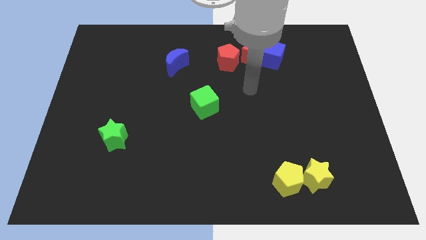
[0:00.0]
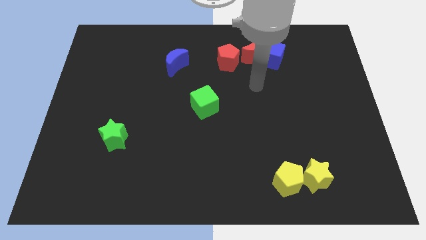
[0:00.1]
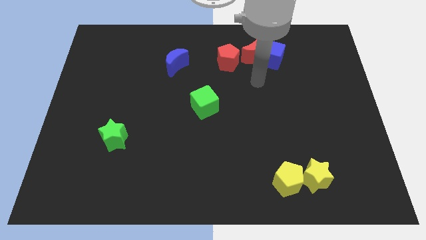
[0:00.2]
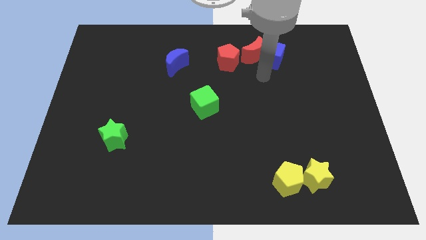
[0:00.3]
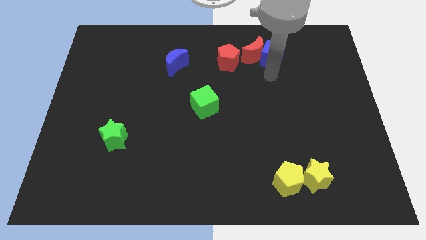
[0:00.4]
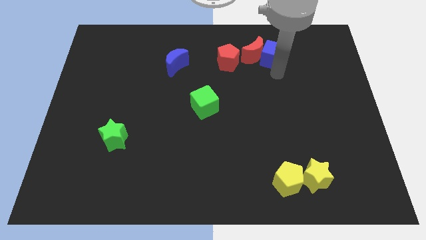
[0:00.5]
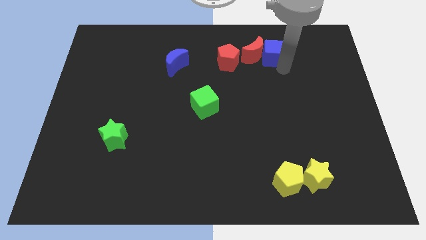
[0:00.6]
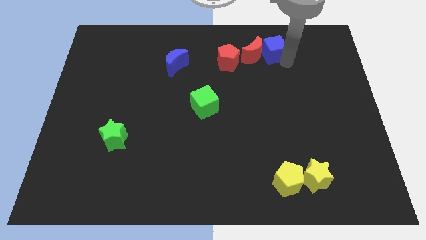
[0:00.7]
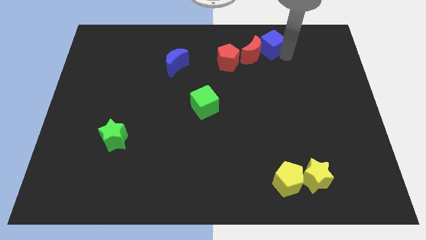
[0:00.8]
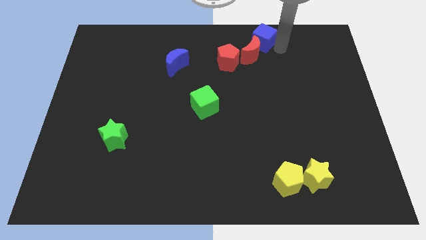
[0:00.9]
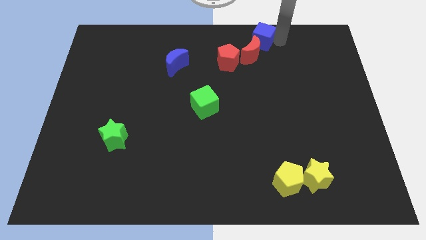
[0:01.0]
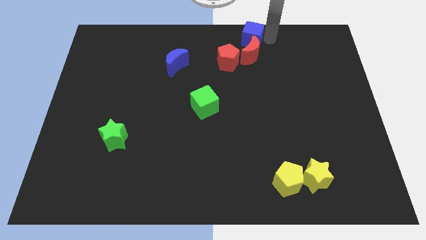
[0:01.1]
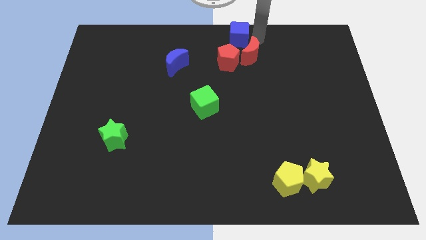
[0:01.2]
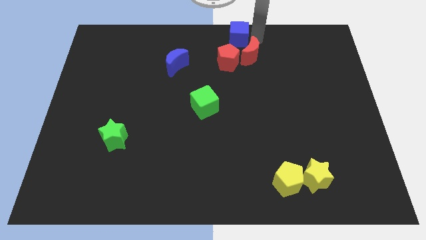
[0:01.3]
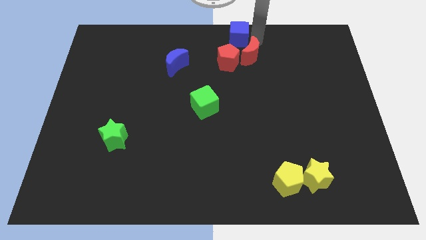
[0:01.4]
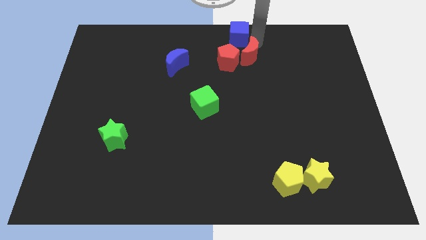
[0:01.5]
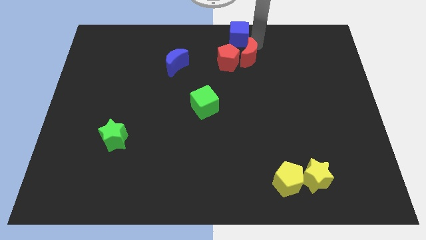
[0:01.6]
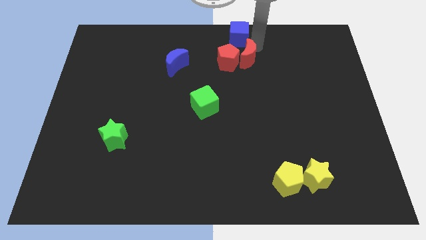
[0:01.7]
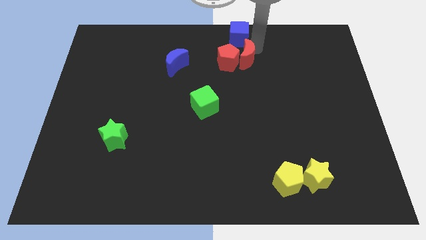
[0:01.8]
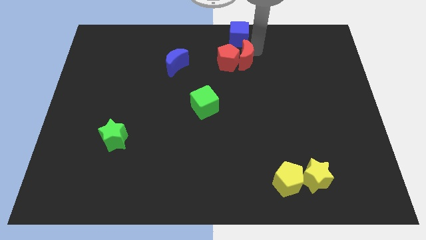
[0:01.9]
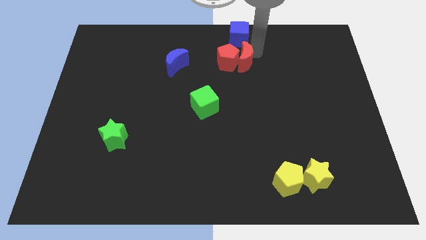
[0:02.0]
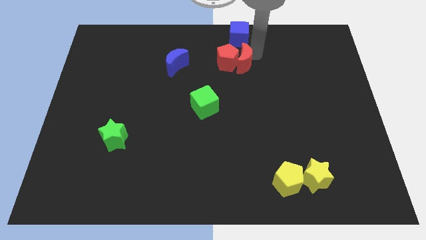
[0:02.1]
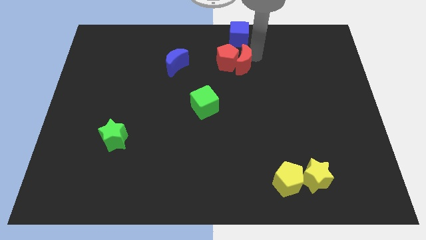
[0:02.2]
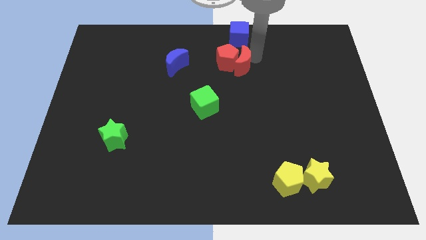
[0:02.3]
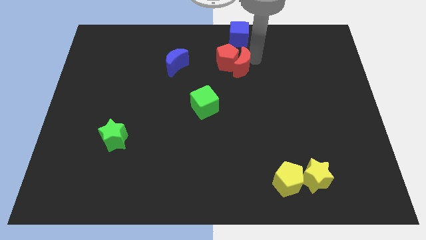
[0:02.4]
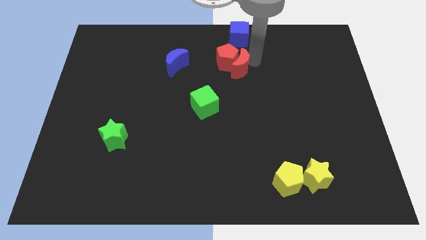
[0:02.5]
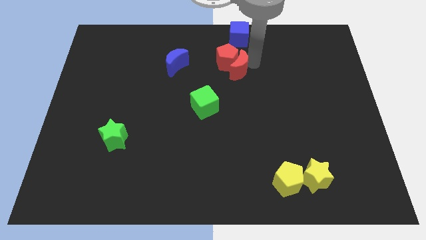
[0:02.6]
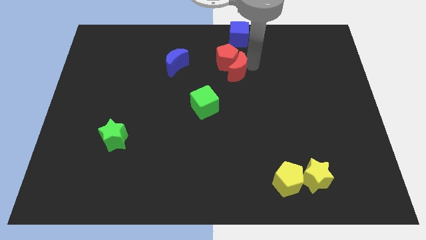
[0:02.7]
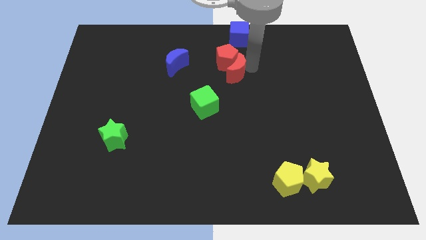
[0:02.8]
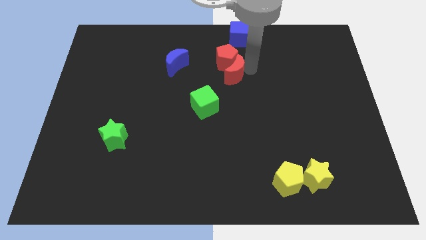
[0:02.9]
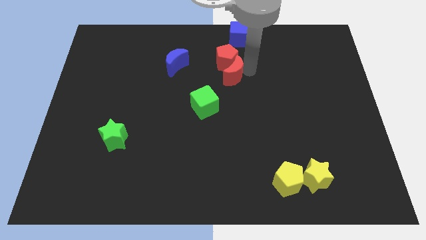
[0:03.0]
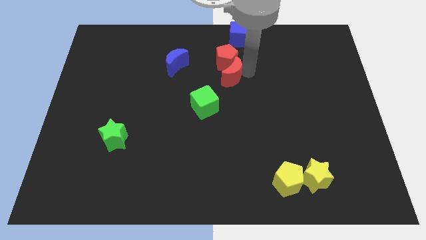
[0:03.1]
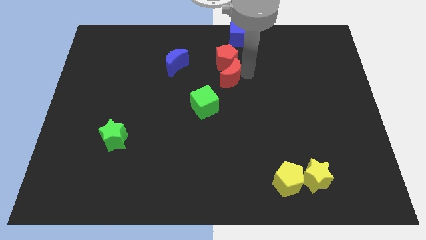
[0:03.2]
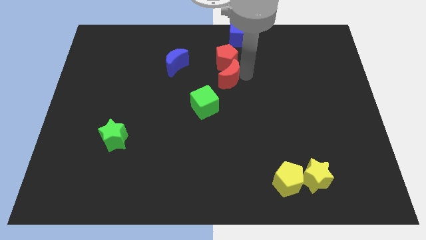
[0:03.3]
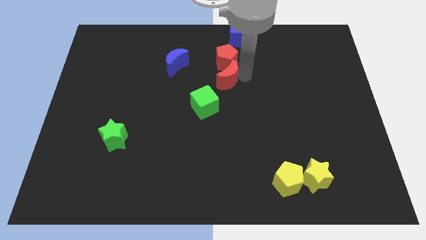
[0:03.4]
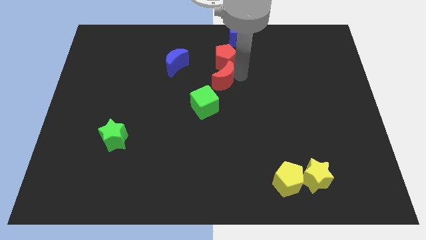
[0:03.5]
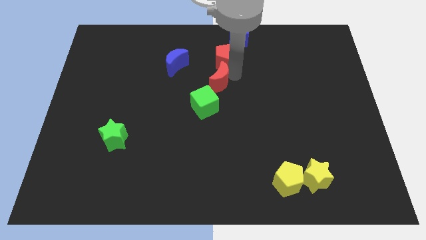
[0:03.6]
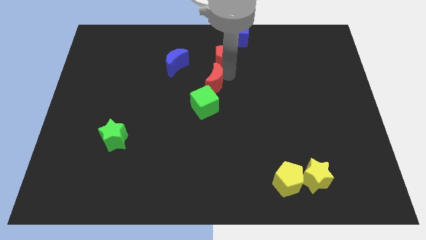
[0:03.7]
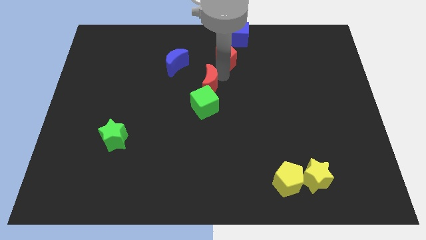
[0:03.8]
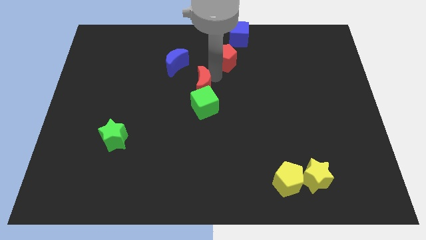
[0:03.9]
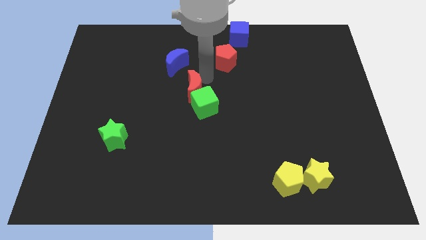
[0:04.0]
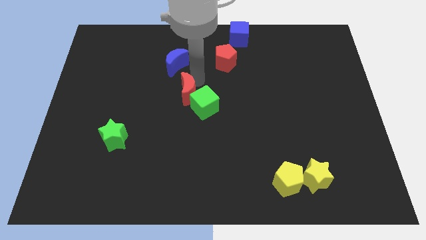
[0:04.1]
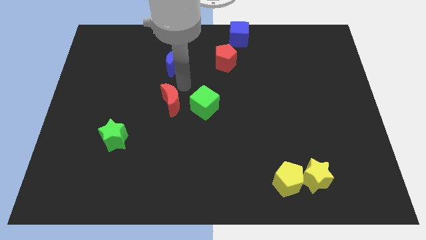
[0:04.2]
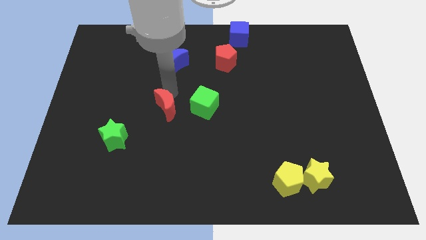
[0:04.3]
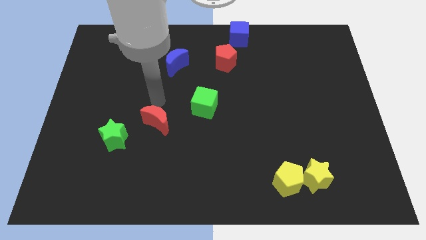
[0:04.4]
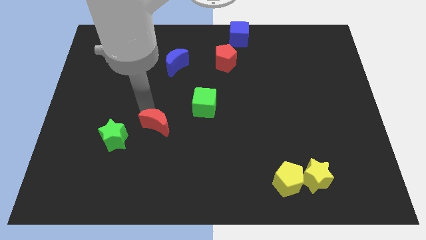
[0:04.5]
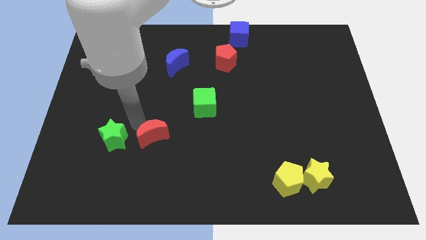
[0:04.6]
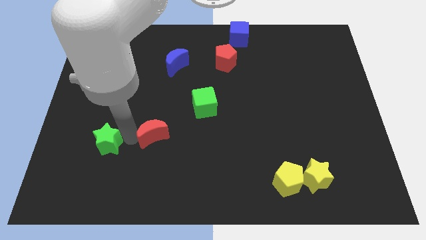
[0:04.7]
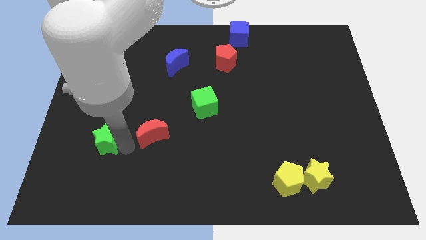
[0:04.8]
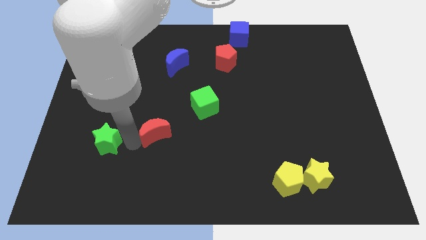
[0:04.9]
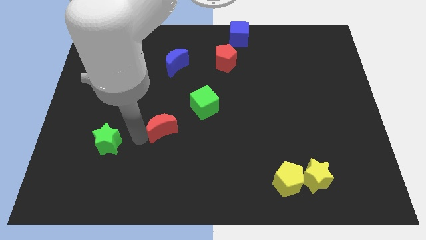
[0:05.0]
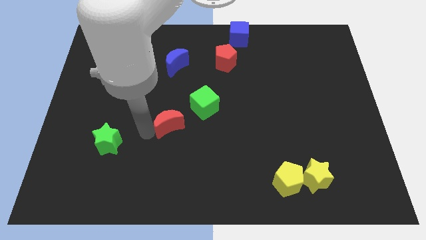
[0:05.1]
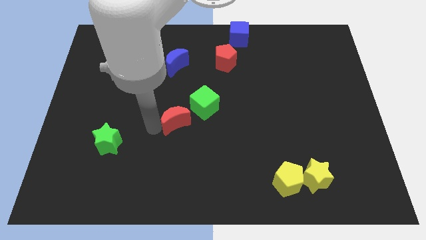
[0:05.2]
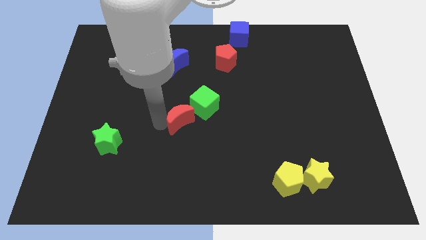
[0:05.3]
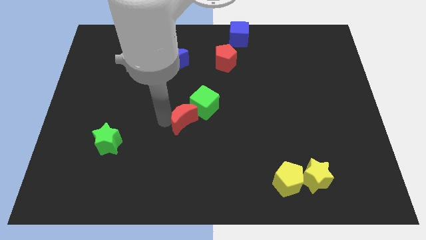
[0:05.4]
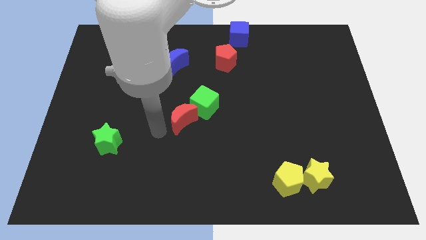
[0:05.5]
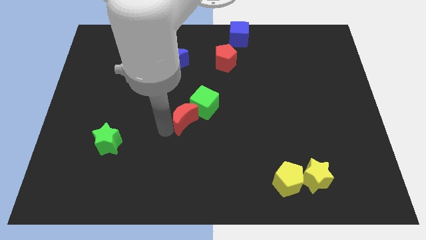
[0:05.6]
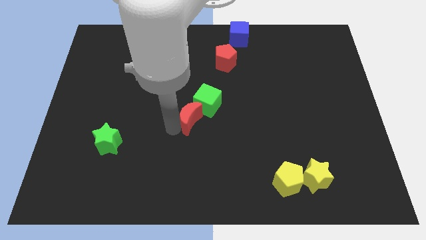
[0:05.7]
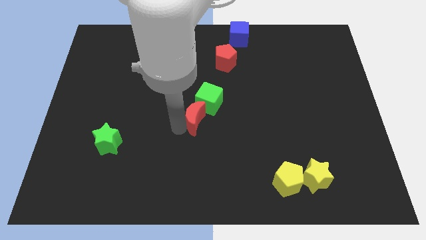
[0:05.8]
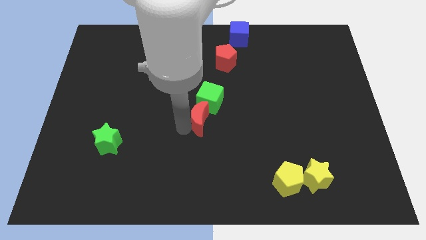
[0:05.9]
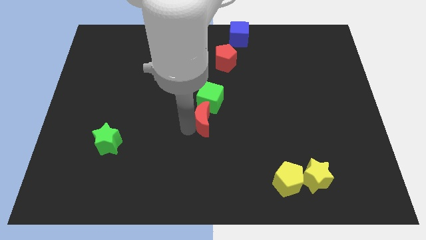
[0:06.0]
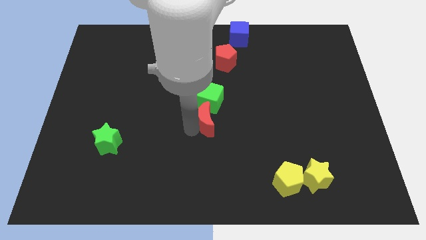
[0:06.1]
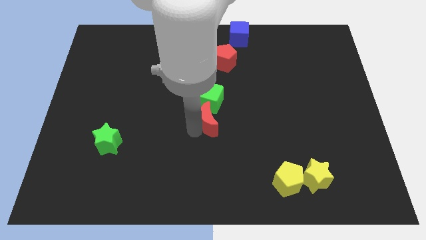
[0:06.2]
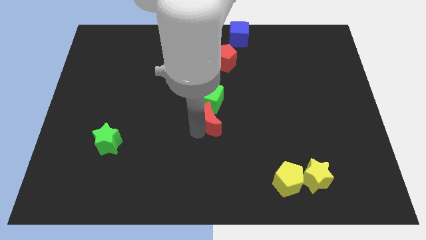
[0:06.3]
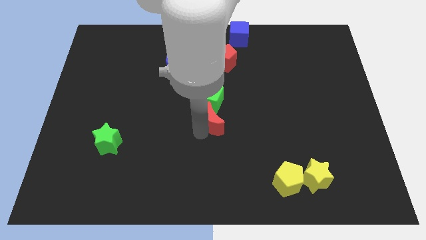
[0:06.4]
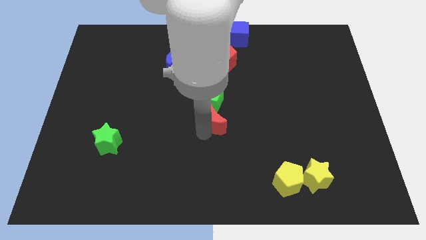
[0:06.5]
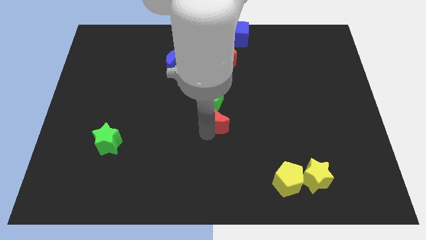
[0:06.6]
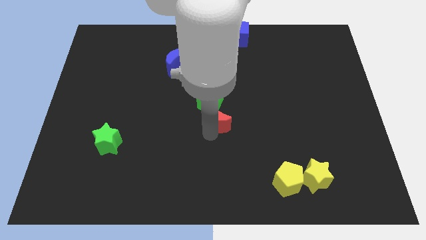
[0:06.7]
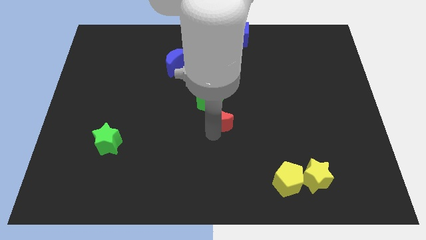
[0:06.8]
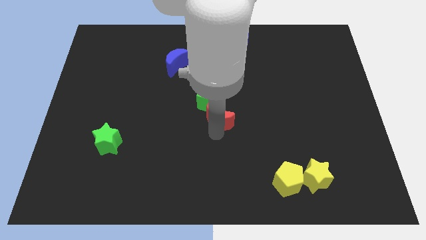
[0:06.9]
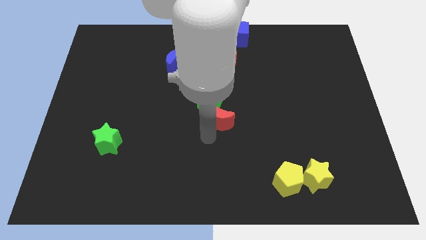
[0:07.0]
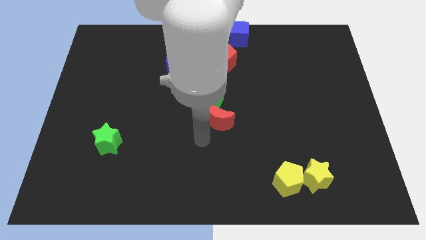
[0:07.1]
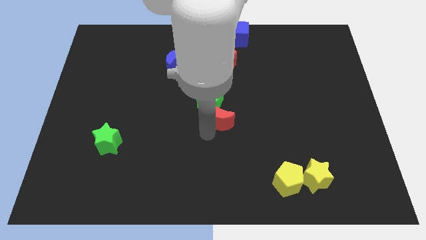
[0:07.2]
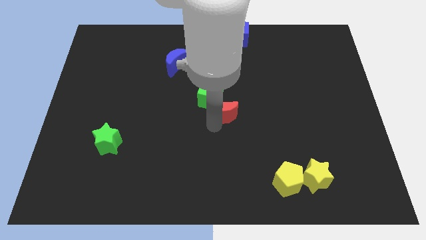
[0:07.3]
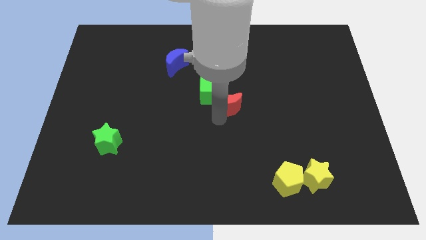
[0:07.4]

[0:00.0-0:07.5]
put the red moon to the right side of the green cube
